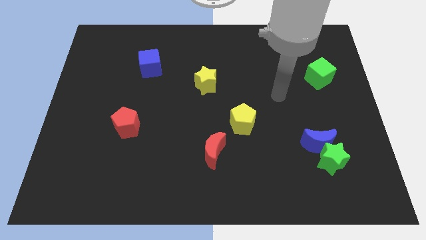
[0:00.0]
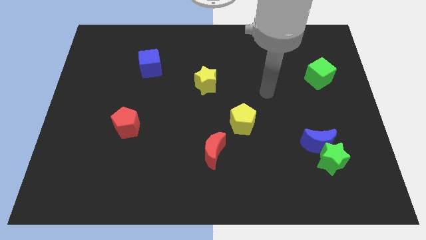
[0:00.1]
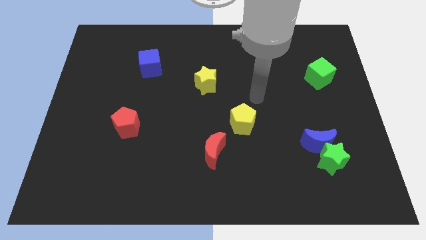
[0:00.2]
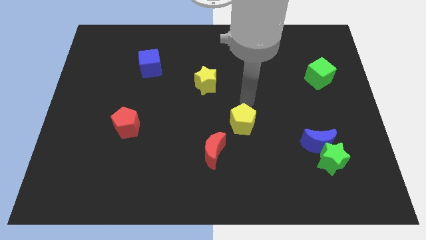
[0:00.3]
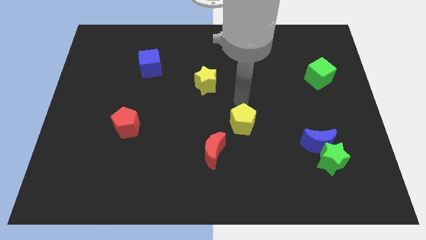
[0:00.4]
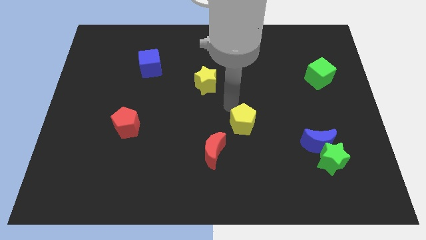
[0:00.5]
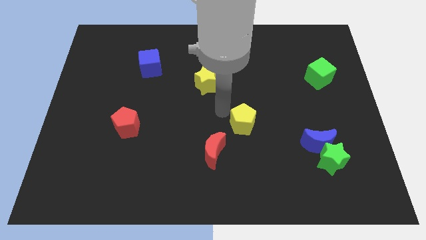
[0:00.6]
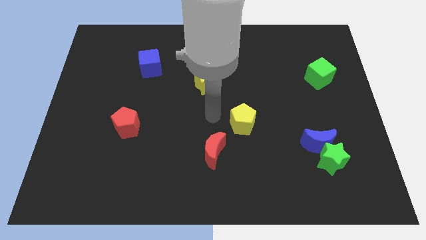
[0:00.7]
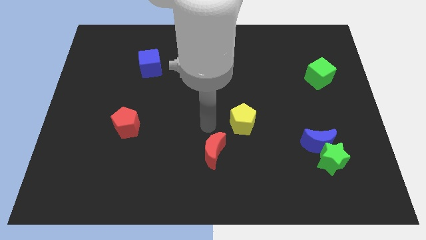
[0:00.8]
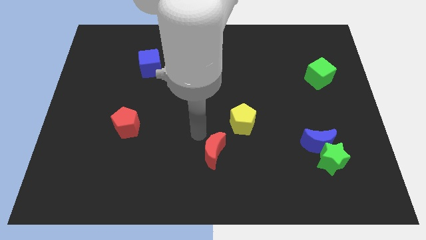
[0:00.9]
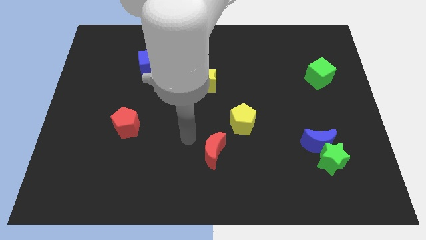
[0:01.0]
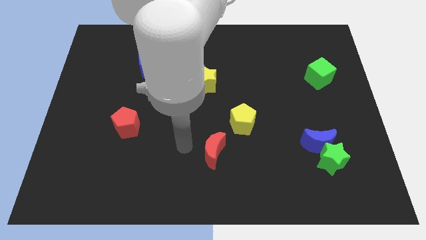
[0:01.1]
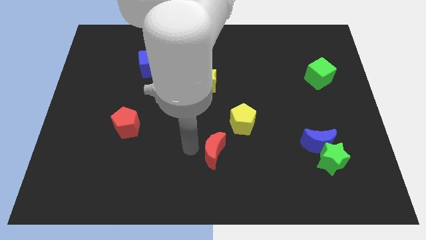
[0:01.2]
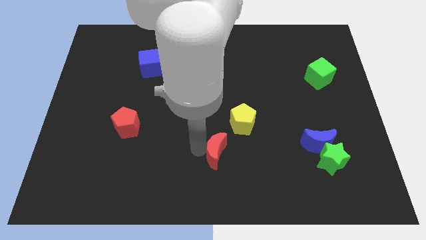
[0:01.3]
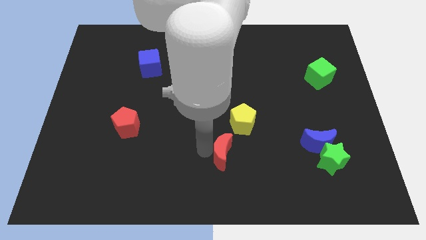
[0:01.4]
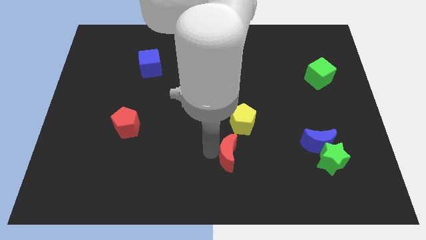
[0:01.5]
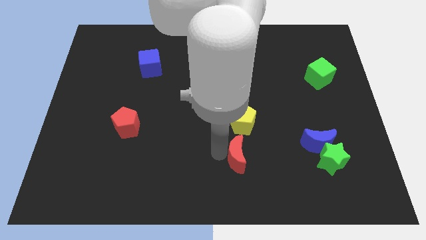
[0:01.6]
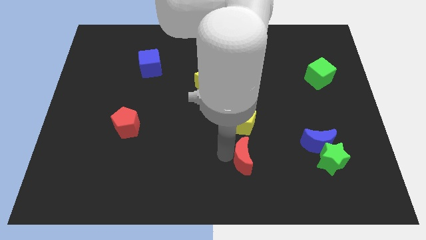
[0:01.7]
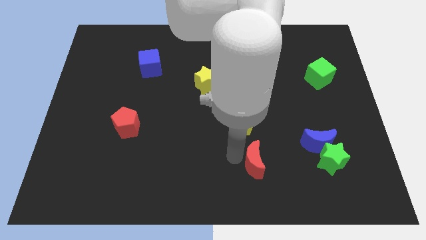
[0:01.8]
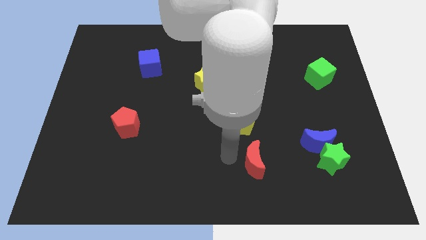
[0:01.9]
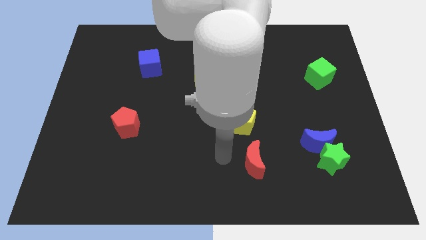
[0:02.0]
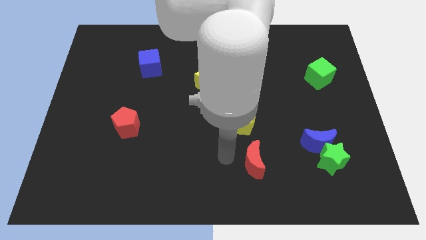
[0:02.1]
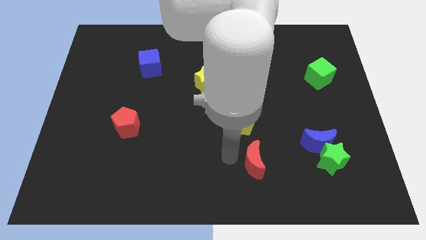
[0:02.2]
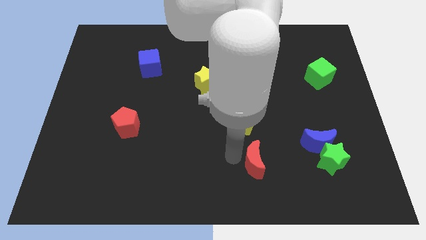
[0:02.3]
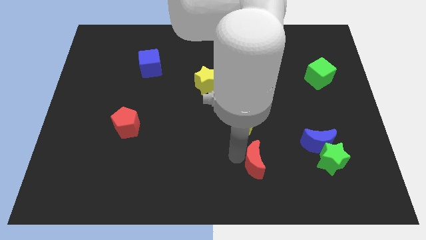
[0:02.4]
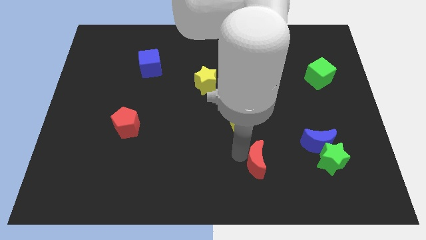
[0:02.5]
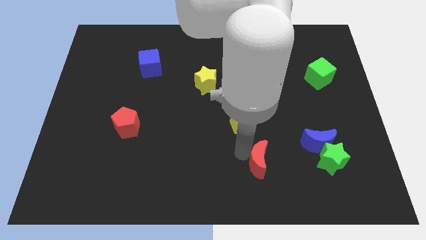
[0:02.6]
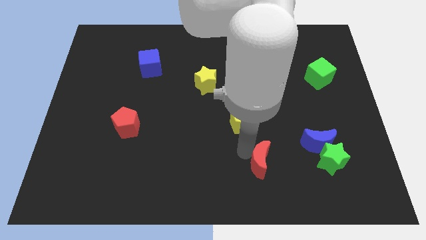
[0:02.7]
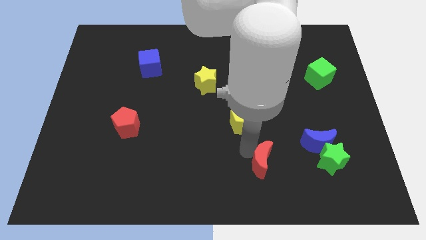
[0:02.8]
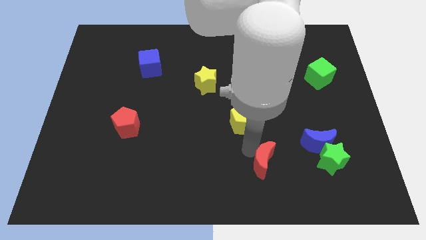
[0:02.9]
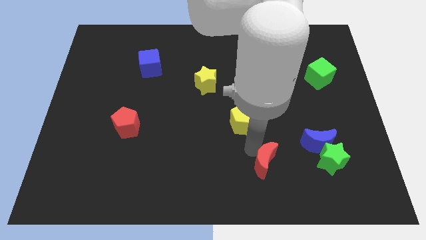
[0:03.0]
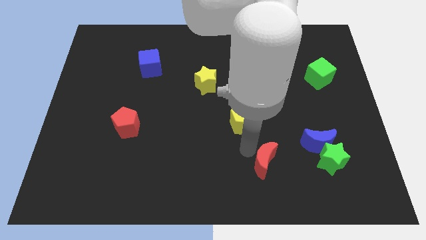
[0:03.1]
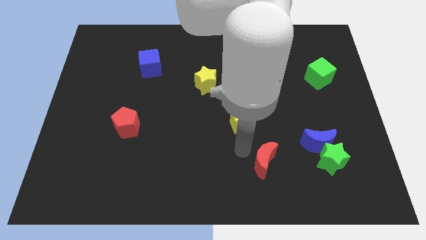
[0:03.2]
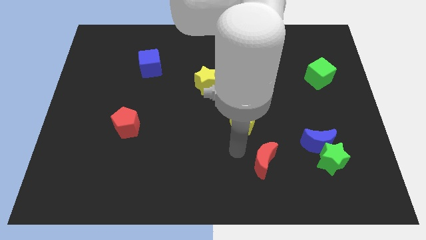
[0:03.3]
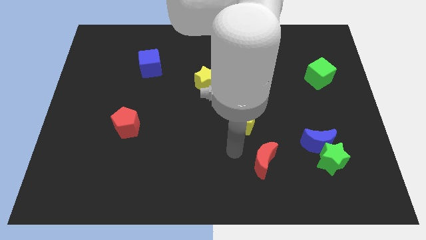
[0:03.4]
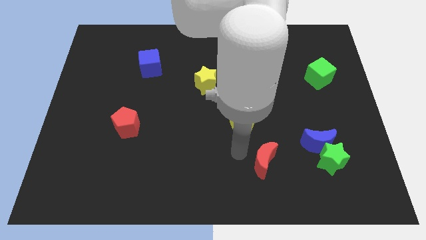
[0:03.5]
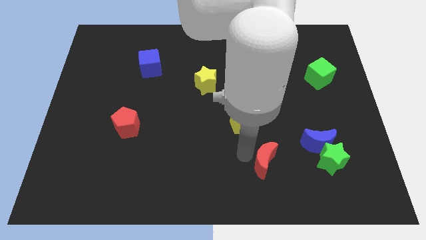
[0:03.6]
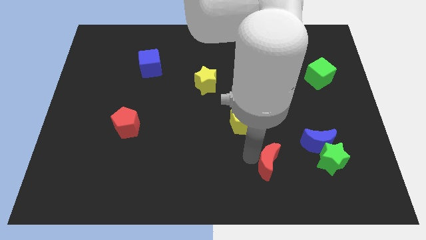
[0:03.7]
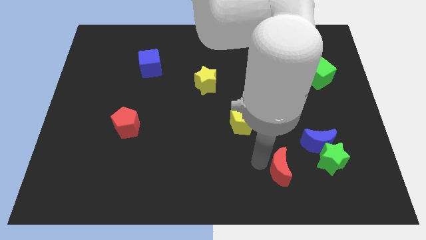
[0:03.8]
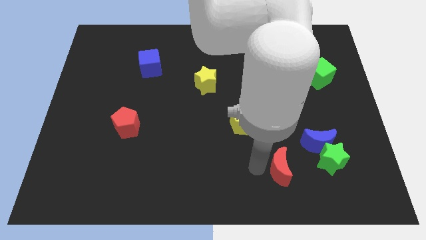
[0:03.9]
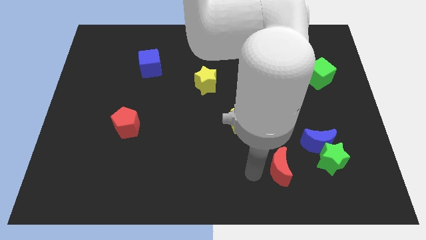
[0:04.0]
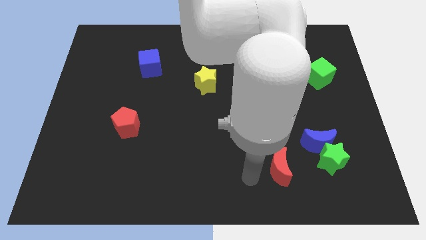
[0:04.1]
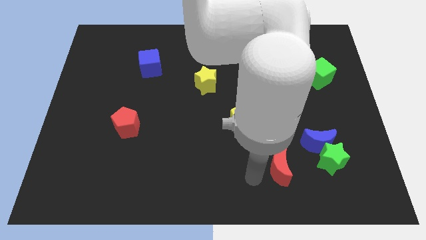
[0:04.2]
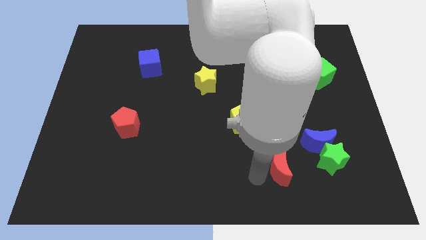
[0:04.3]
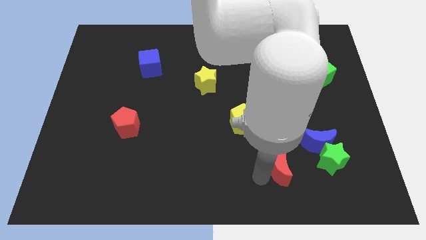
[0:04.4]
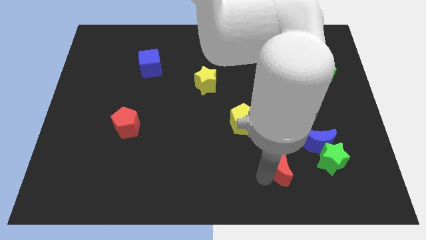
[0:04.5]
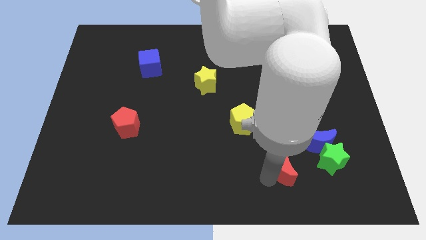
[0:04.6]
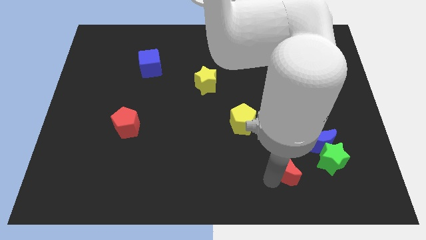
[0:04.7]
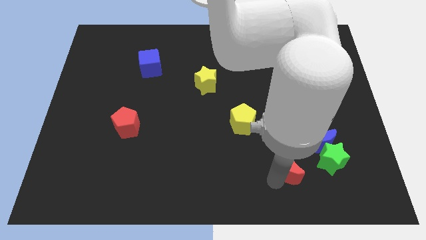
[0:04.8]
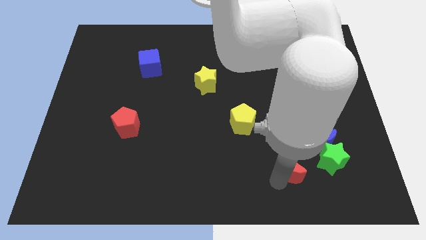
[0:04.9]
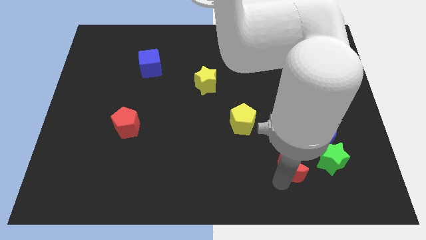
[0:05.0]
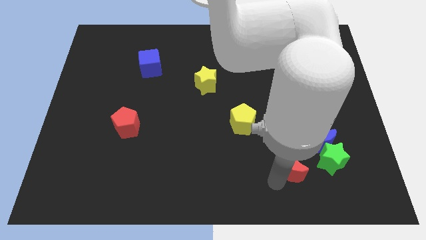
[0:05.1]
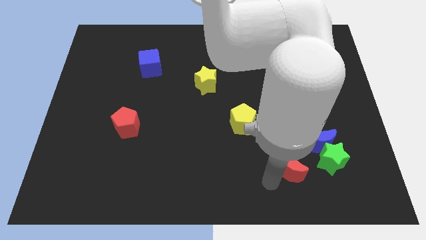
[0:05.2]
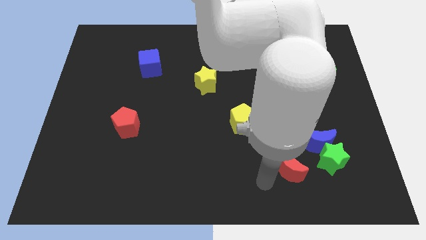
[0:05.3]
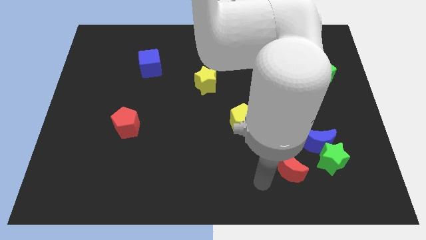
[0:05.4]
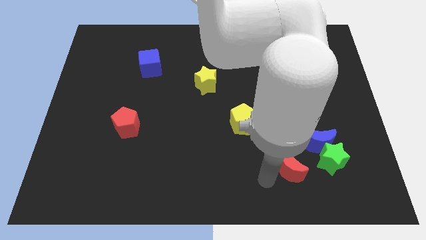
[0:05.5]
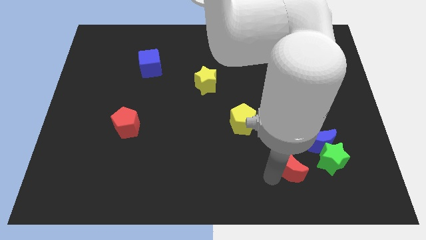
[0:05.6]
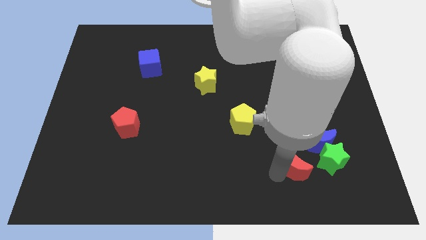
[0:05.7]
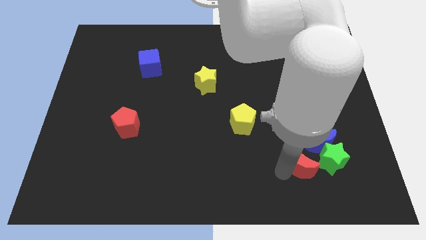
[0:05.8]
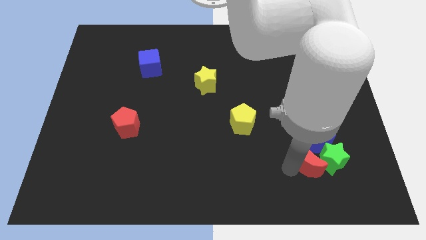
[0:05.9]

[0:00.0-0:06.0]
slide the red moon towards the green star
